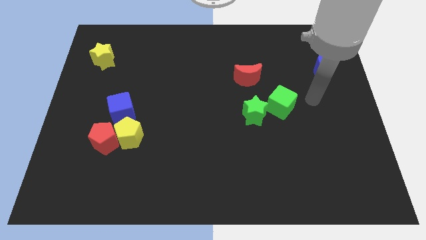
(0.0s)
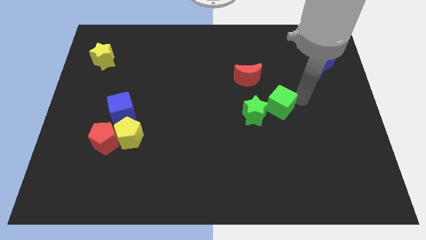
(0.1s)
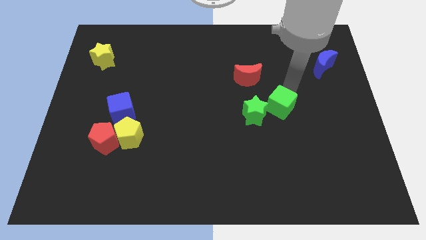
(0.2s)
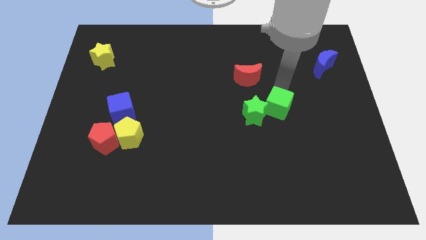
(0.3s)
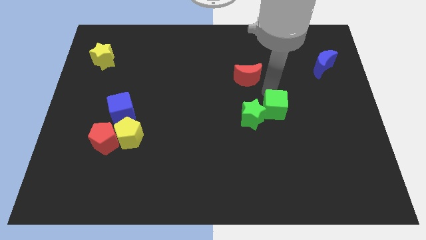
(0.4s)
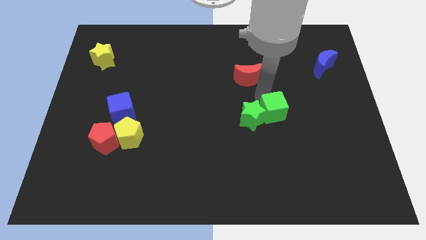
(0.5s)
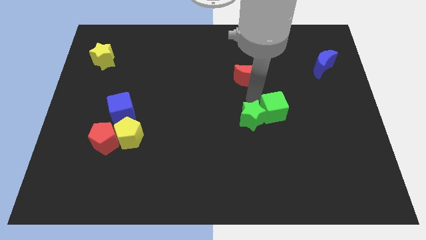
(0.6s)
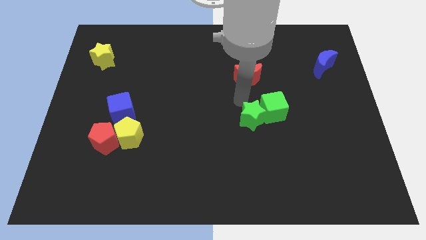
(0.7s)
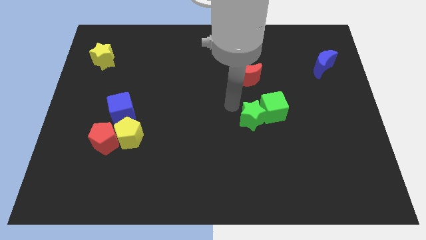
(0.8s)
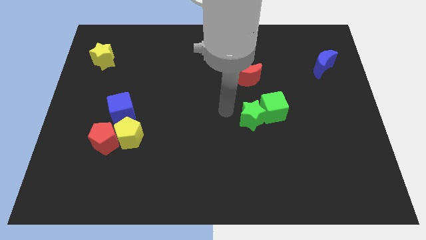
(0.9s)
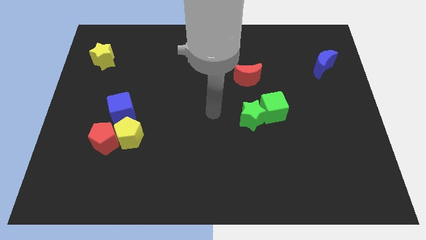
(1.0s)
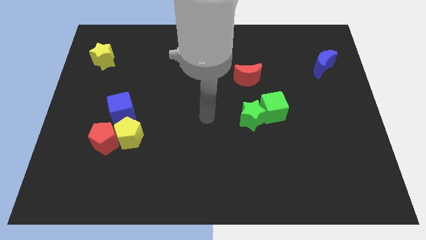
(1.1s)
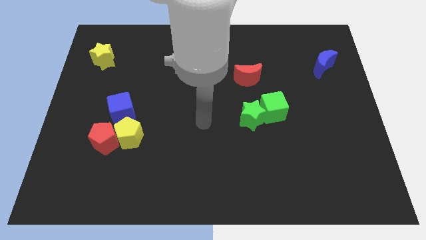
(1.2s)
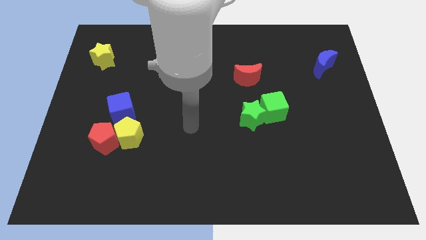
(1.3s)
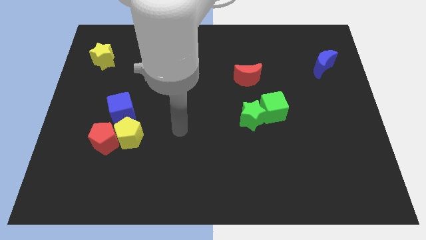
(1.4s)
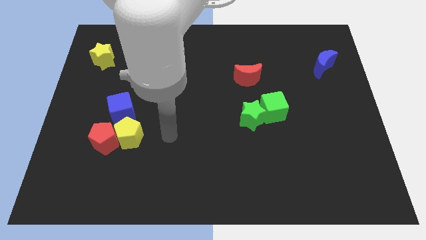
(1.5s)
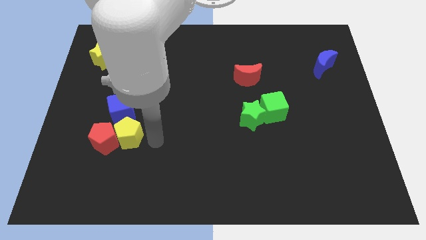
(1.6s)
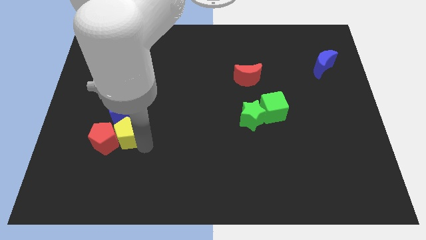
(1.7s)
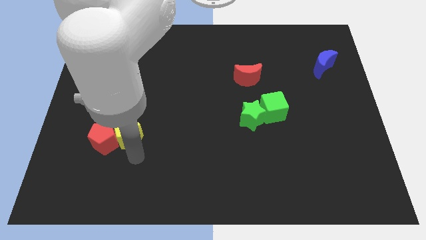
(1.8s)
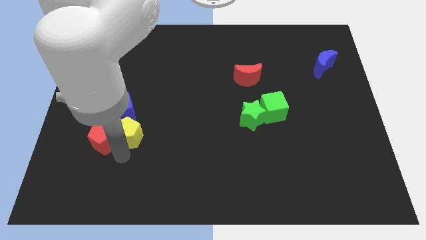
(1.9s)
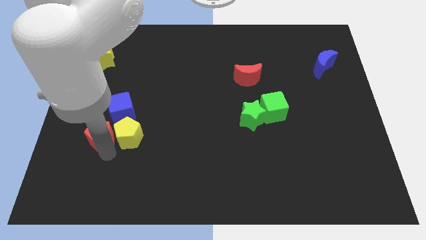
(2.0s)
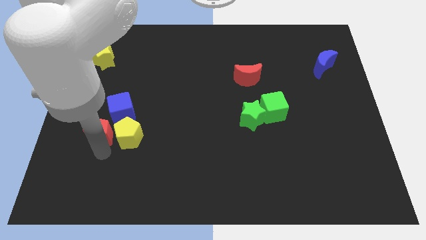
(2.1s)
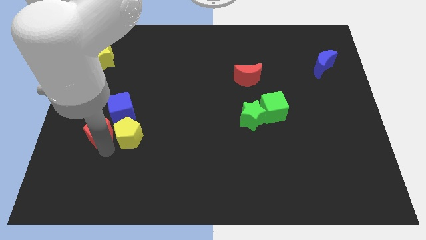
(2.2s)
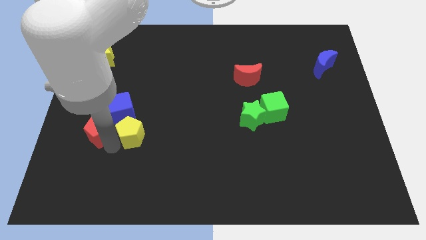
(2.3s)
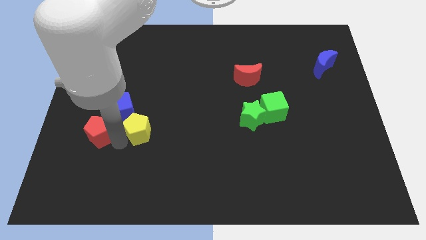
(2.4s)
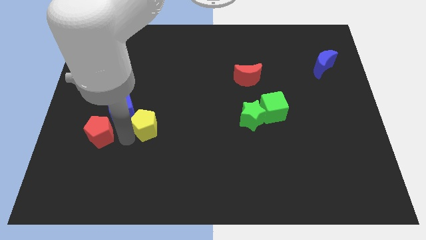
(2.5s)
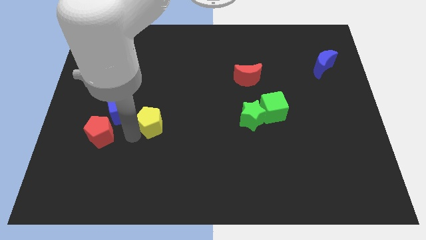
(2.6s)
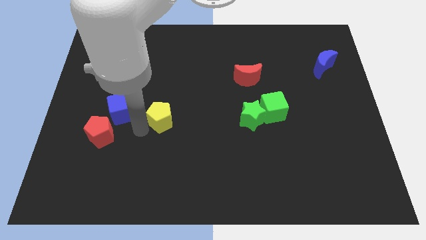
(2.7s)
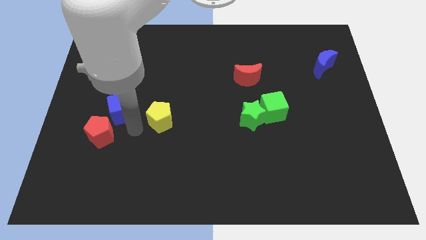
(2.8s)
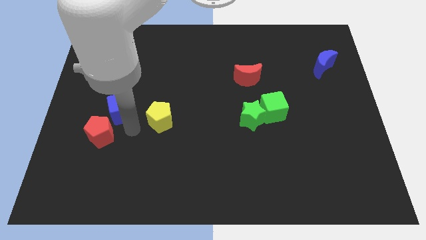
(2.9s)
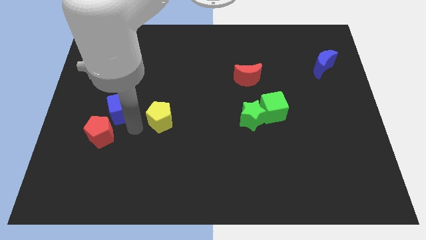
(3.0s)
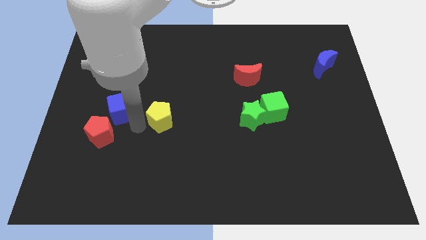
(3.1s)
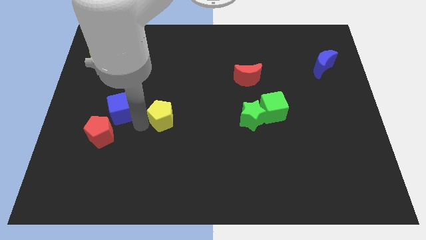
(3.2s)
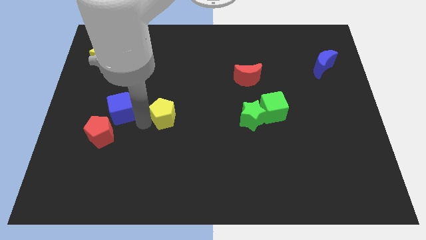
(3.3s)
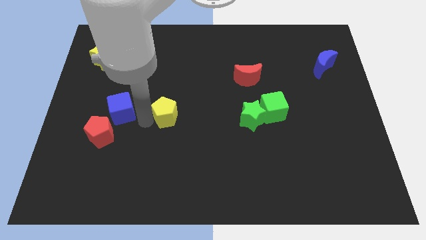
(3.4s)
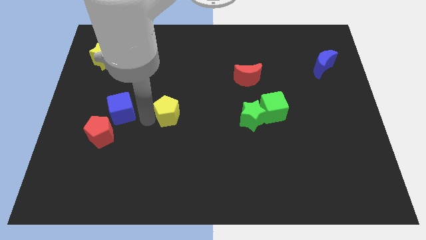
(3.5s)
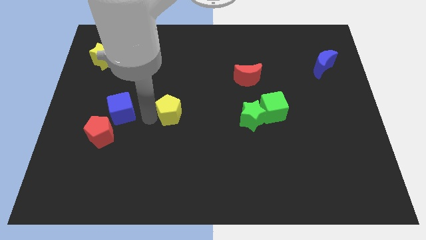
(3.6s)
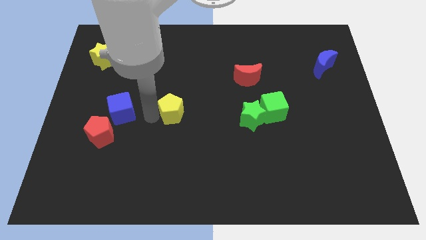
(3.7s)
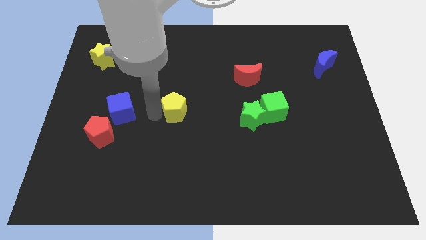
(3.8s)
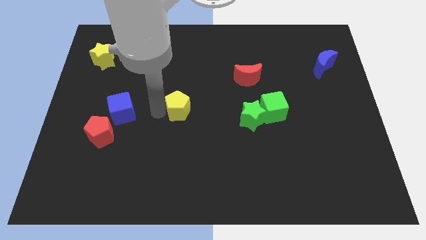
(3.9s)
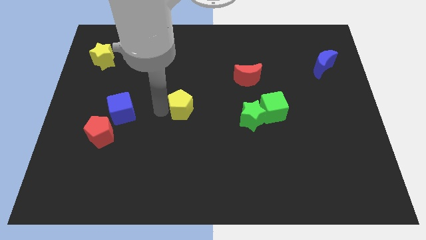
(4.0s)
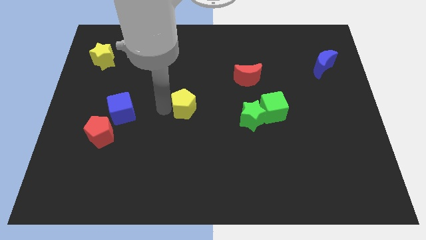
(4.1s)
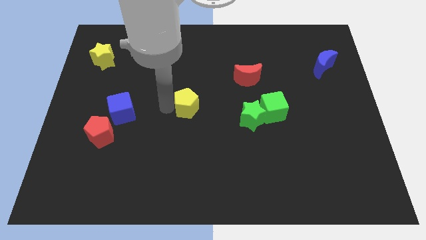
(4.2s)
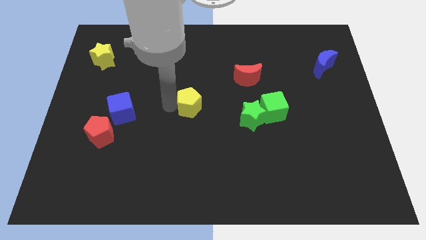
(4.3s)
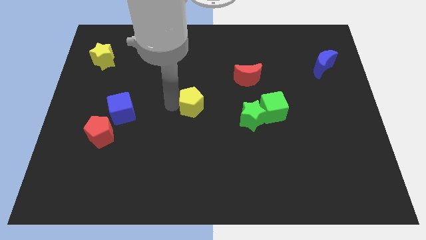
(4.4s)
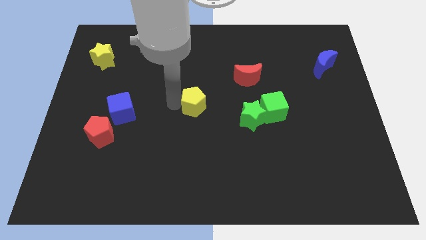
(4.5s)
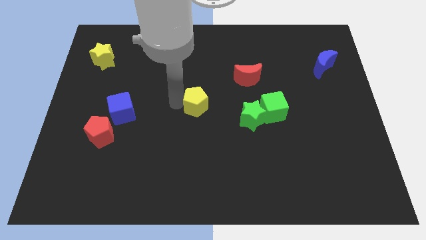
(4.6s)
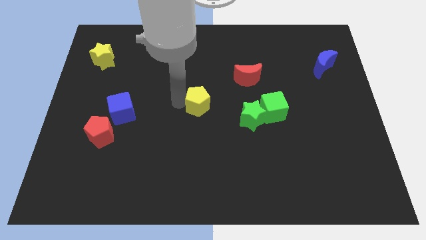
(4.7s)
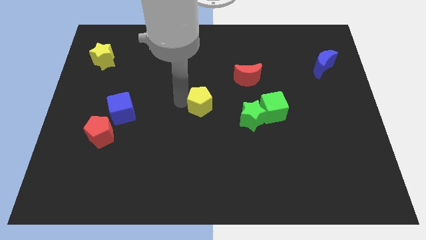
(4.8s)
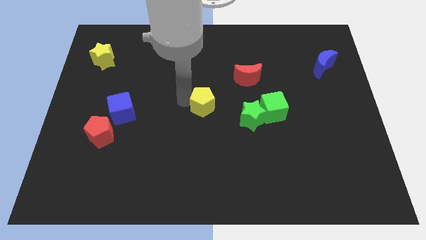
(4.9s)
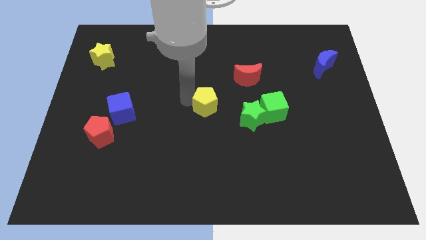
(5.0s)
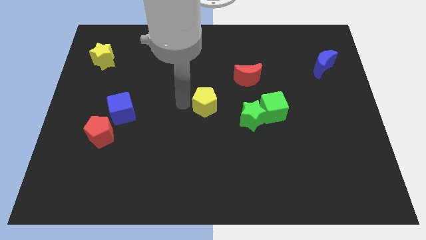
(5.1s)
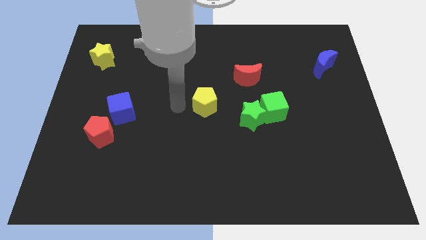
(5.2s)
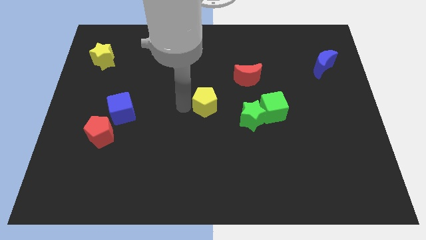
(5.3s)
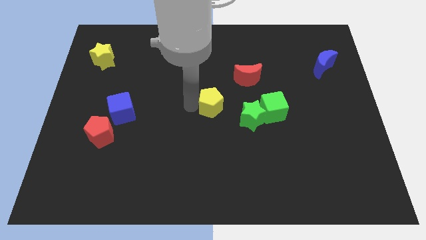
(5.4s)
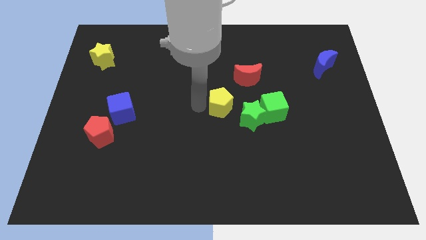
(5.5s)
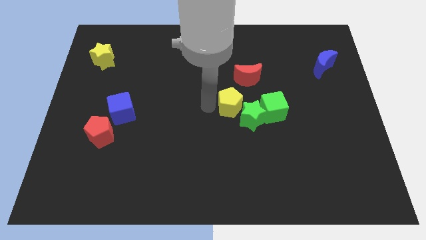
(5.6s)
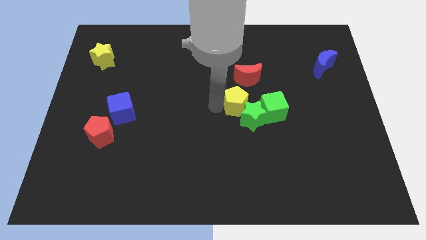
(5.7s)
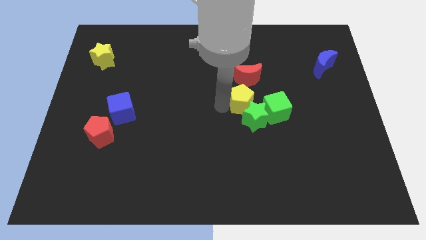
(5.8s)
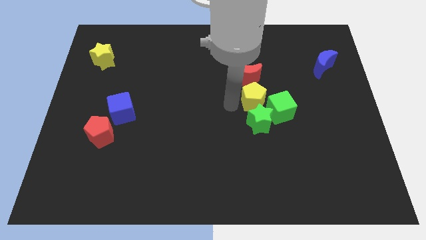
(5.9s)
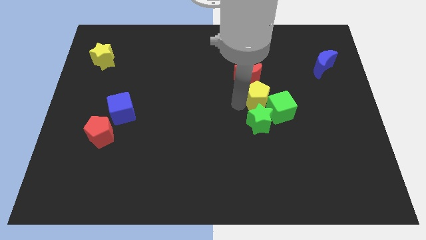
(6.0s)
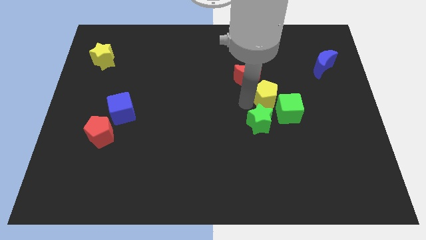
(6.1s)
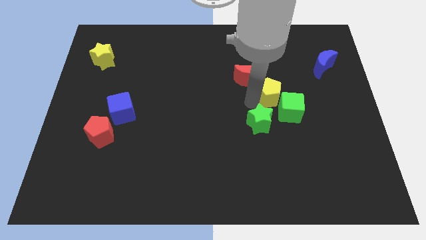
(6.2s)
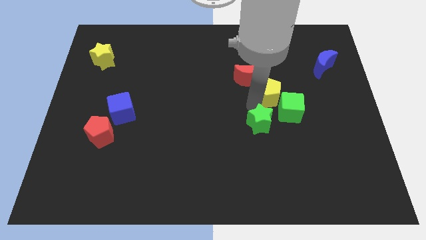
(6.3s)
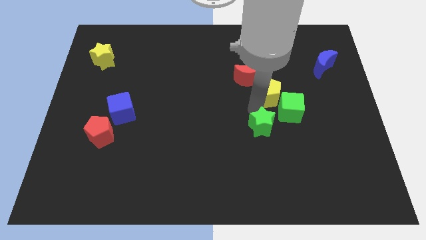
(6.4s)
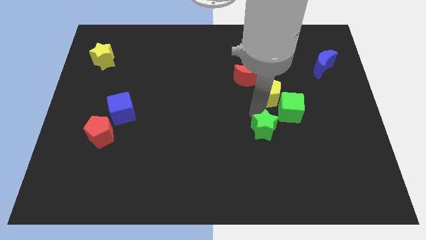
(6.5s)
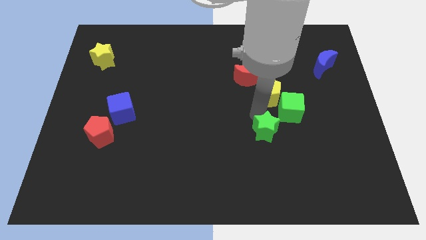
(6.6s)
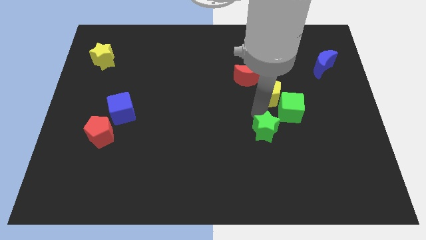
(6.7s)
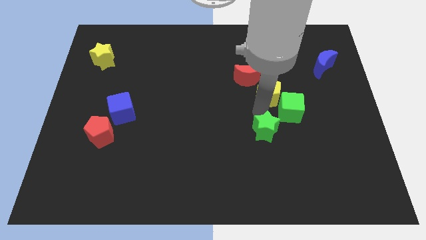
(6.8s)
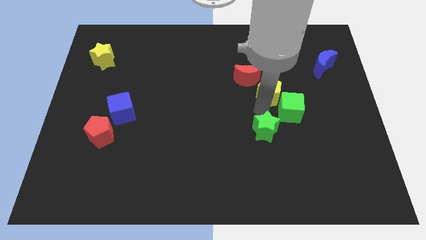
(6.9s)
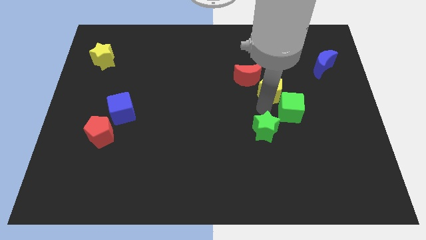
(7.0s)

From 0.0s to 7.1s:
put the yellow pentagon to the right of the red moon
